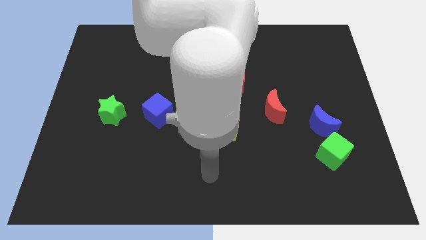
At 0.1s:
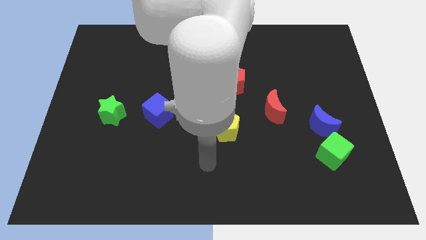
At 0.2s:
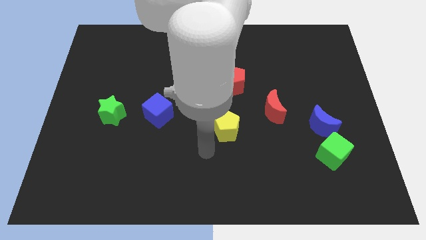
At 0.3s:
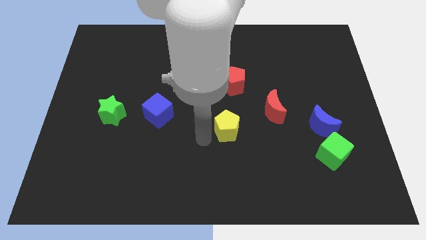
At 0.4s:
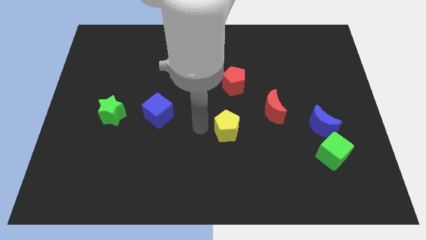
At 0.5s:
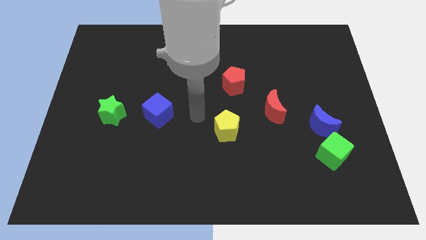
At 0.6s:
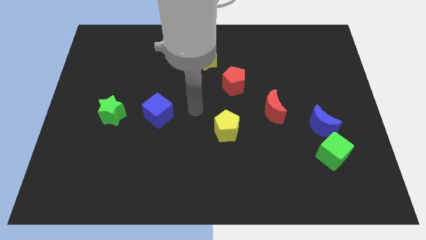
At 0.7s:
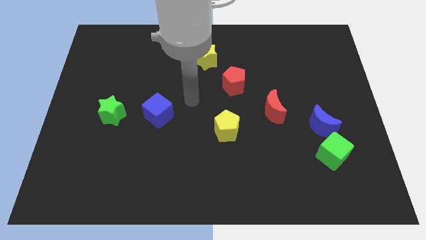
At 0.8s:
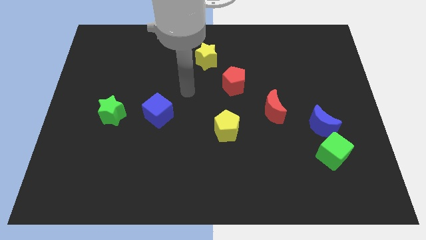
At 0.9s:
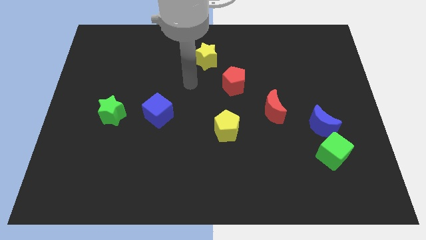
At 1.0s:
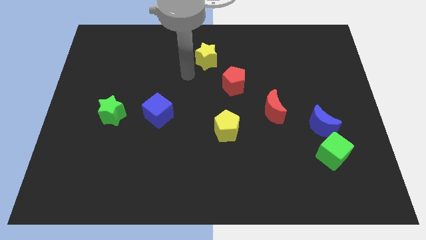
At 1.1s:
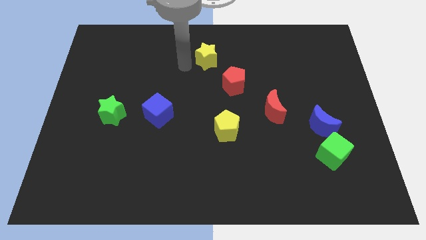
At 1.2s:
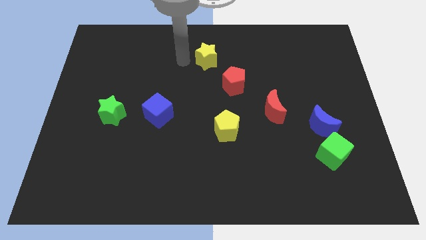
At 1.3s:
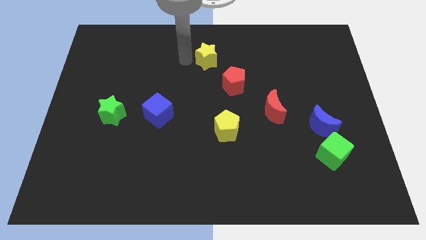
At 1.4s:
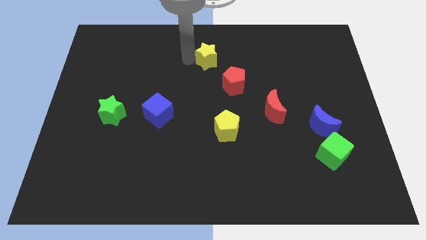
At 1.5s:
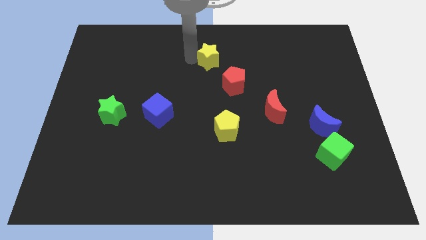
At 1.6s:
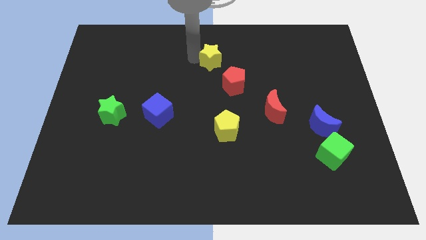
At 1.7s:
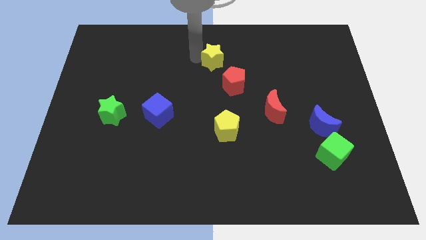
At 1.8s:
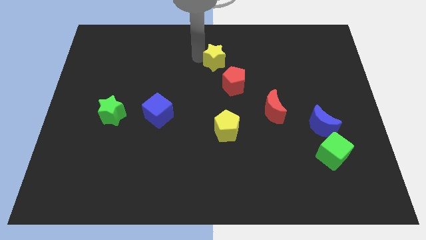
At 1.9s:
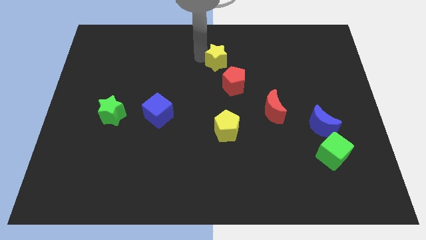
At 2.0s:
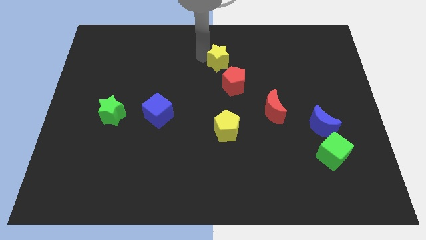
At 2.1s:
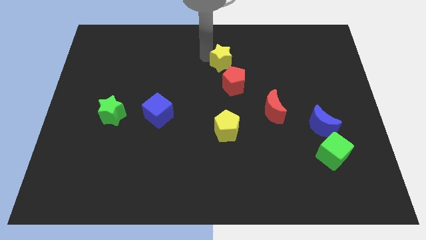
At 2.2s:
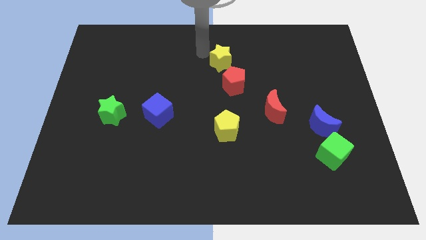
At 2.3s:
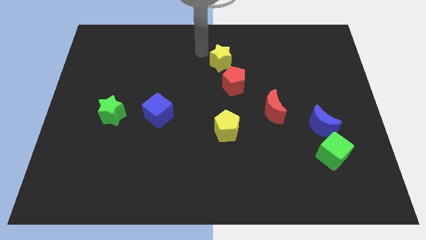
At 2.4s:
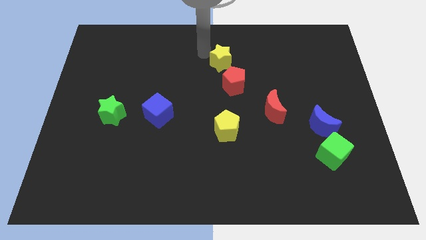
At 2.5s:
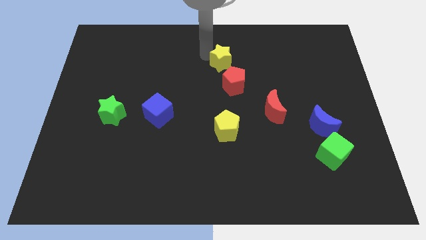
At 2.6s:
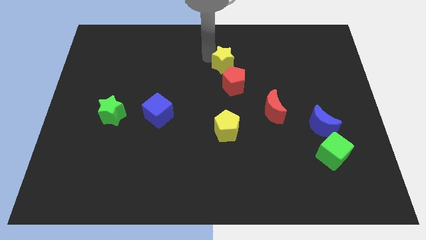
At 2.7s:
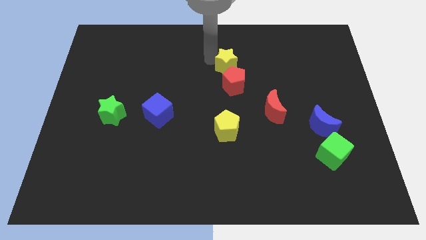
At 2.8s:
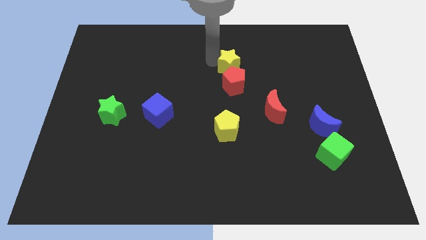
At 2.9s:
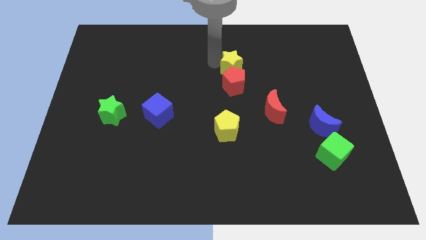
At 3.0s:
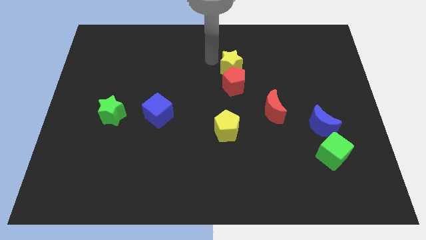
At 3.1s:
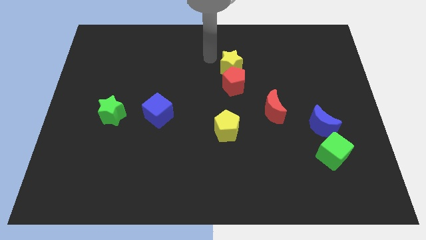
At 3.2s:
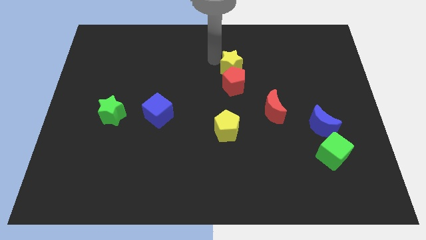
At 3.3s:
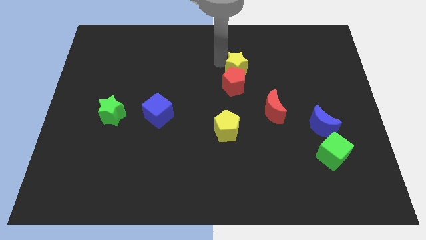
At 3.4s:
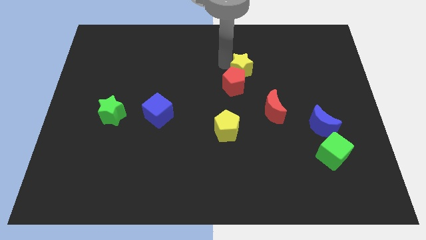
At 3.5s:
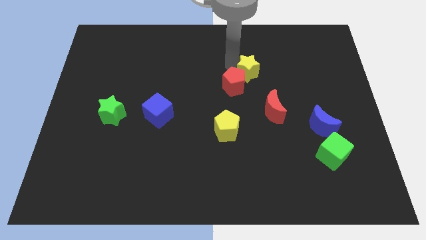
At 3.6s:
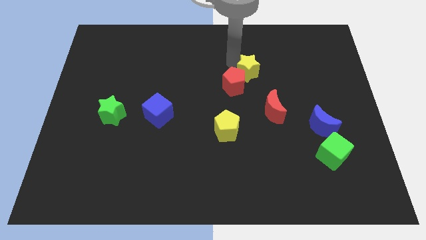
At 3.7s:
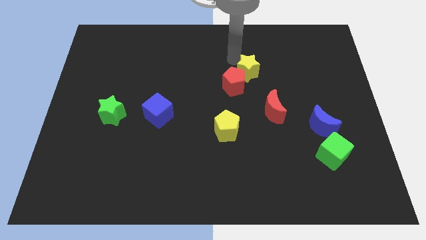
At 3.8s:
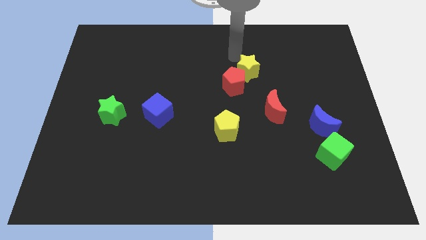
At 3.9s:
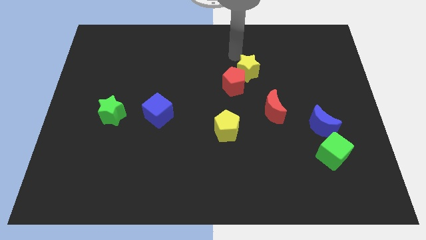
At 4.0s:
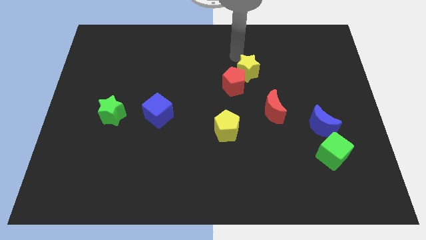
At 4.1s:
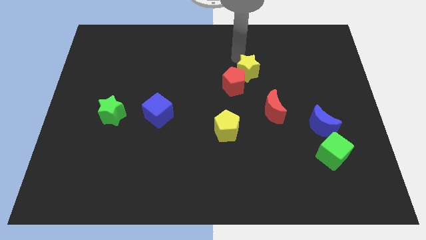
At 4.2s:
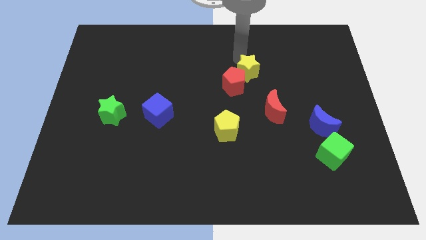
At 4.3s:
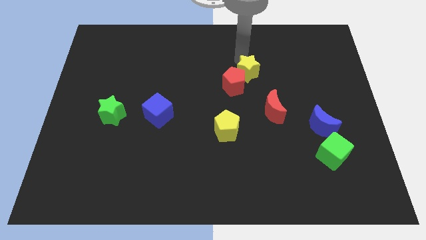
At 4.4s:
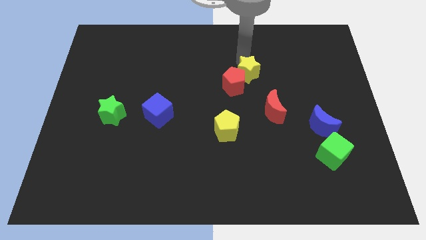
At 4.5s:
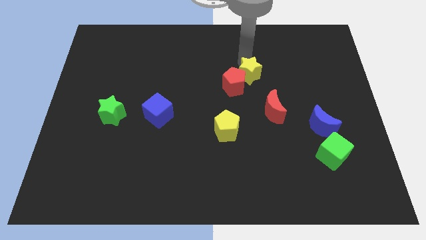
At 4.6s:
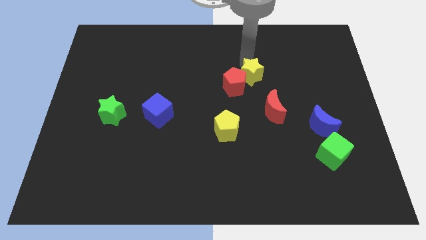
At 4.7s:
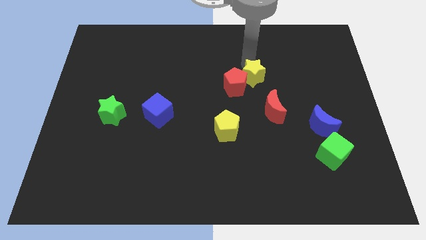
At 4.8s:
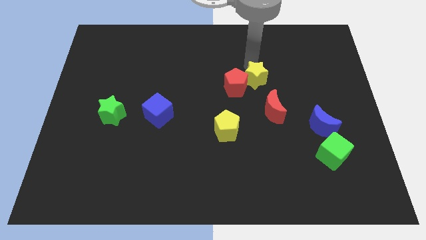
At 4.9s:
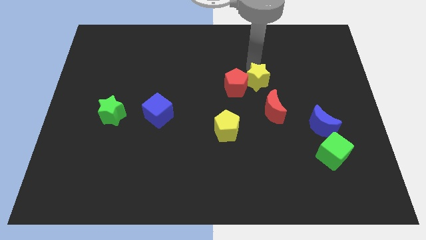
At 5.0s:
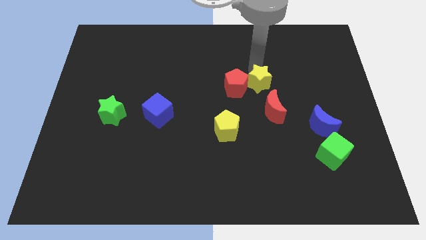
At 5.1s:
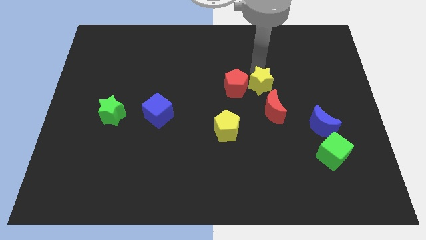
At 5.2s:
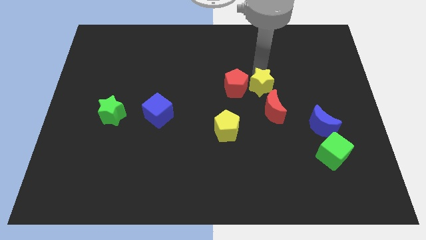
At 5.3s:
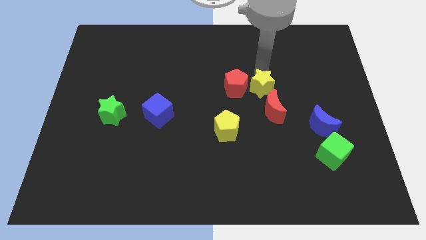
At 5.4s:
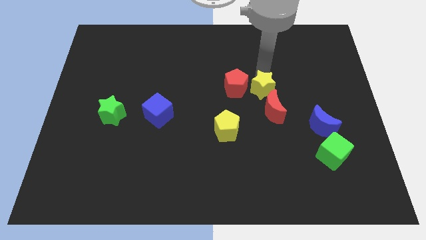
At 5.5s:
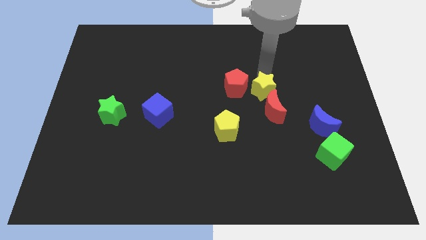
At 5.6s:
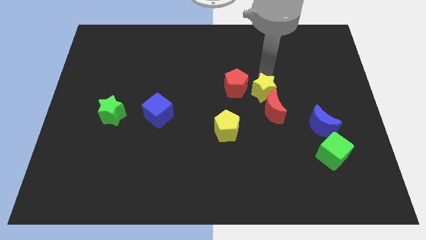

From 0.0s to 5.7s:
move the yellow star close to the red moon

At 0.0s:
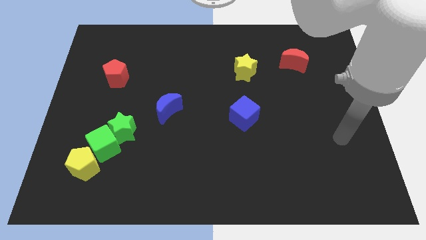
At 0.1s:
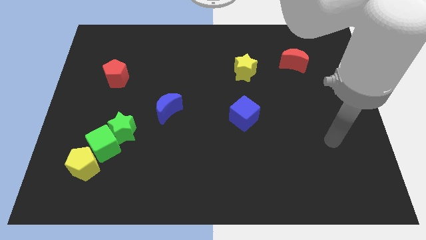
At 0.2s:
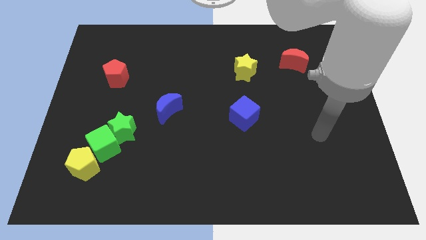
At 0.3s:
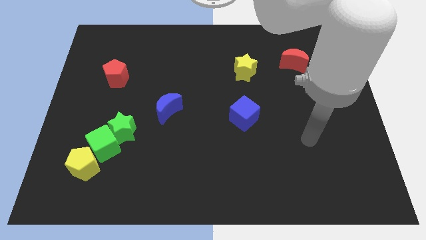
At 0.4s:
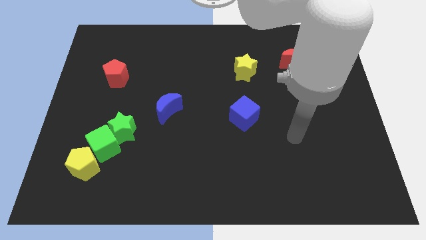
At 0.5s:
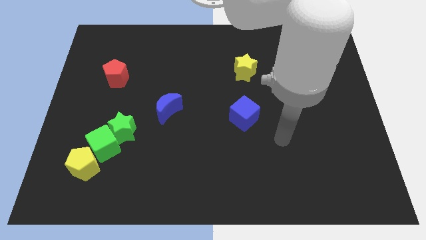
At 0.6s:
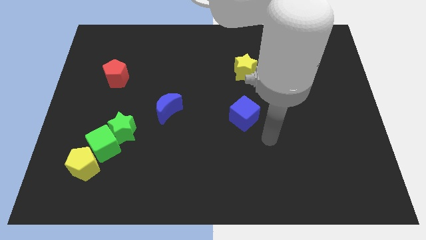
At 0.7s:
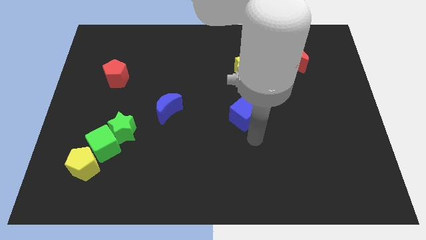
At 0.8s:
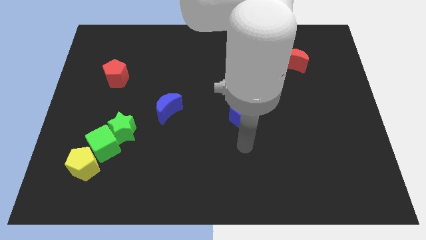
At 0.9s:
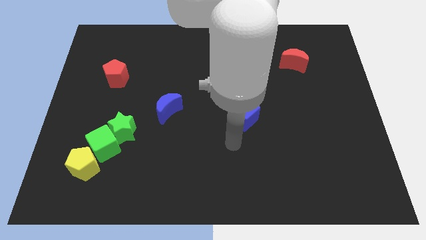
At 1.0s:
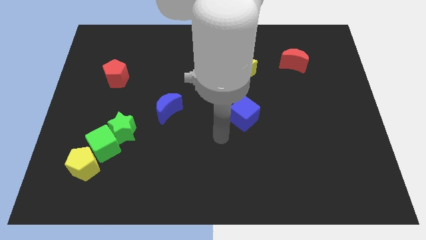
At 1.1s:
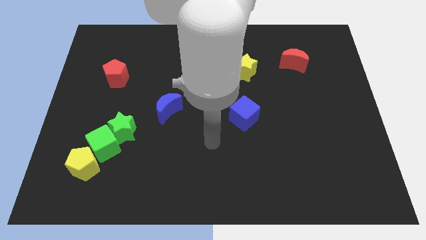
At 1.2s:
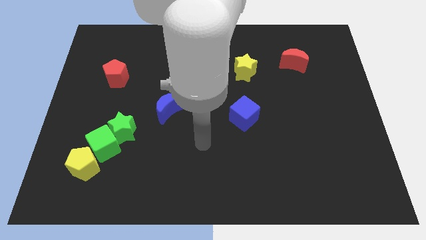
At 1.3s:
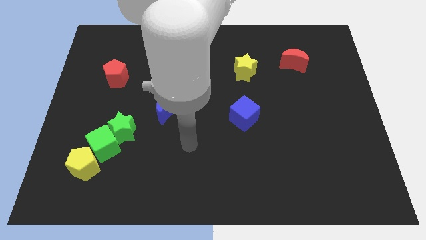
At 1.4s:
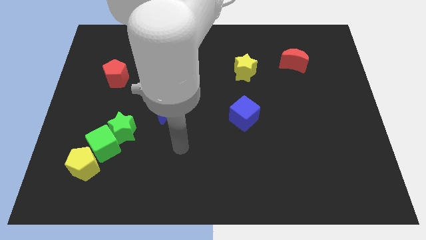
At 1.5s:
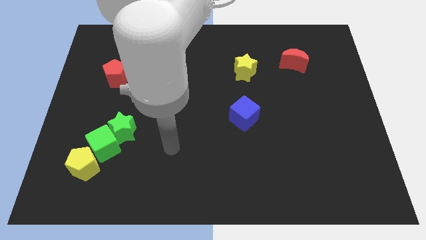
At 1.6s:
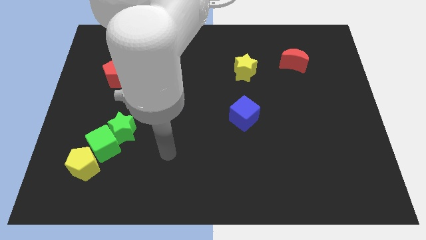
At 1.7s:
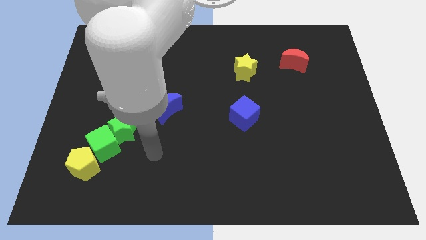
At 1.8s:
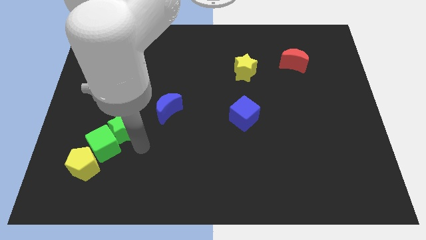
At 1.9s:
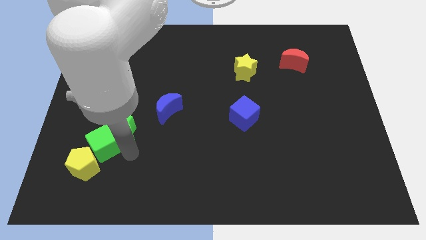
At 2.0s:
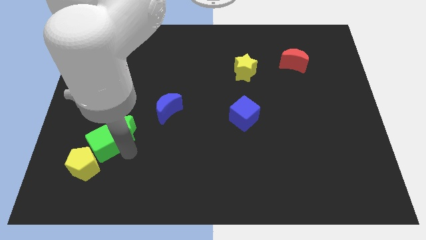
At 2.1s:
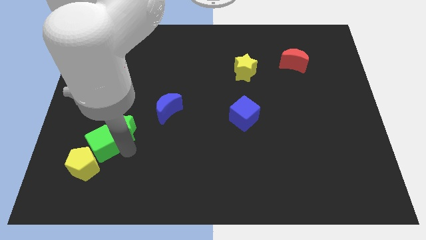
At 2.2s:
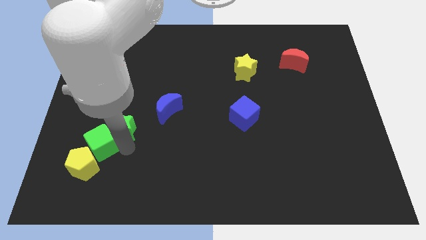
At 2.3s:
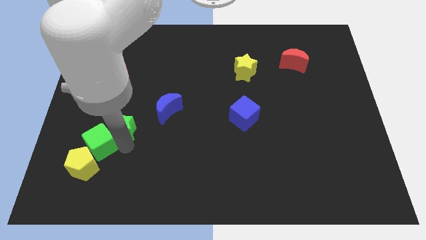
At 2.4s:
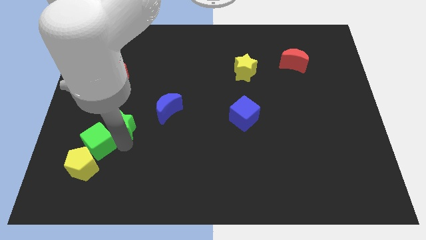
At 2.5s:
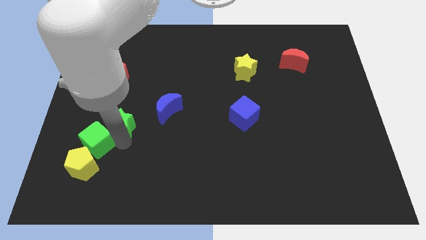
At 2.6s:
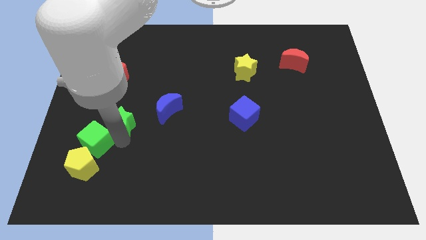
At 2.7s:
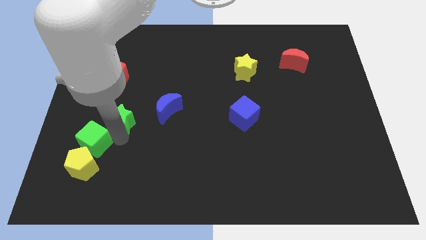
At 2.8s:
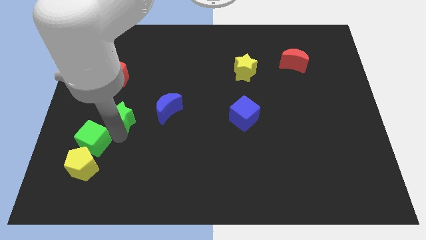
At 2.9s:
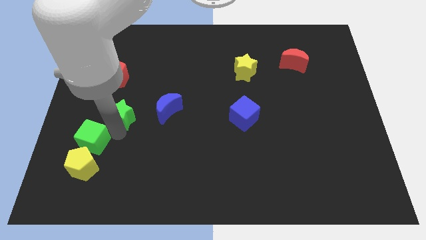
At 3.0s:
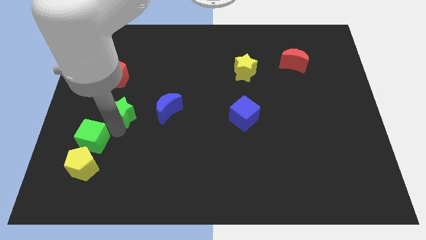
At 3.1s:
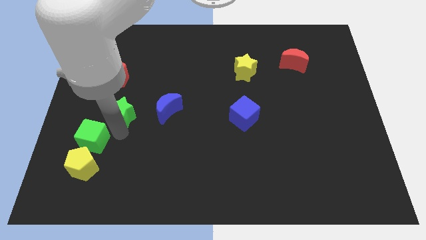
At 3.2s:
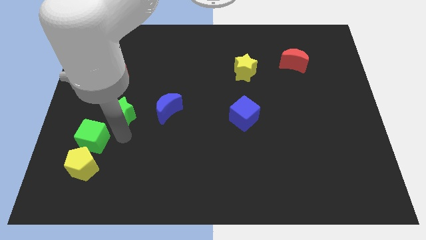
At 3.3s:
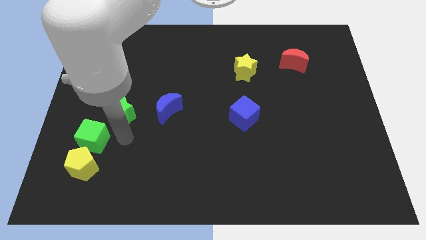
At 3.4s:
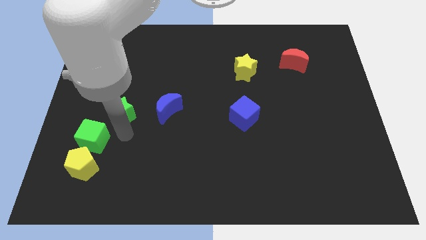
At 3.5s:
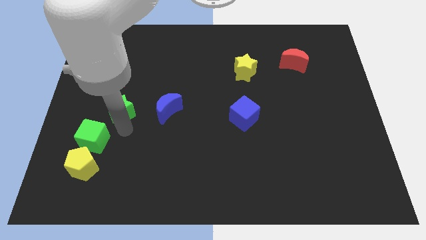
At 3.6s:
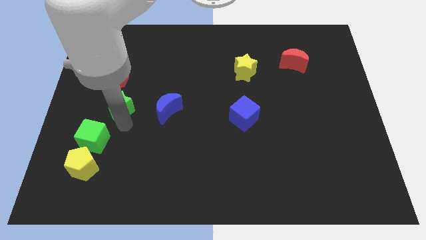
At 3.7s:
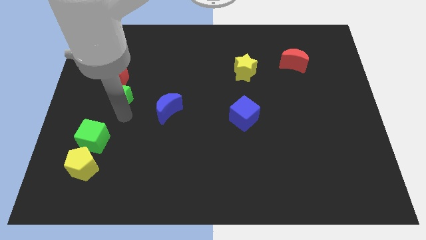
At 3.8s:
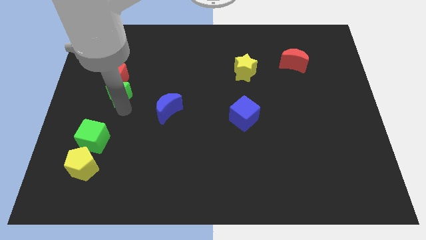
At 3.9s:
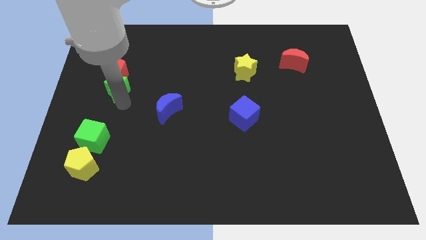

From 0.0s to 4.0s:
put the green star next to the red pentagon
